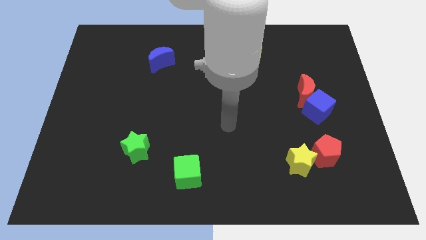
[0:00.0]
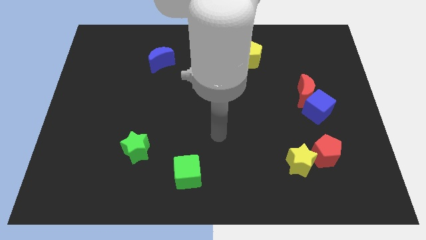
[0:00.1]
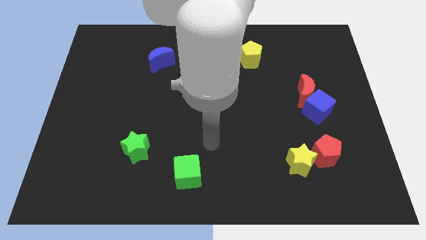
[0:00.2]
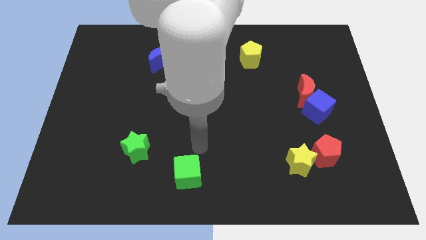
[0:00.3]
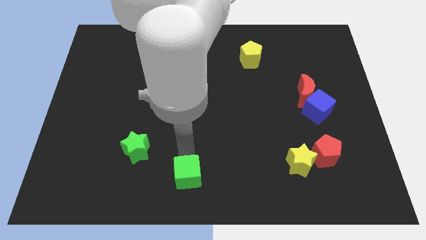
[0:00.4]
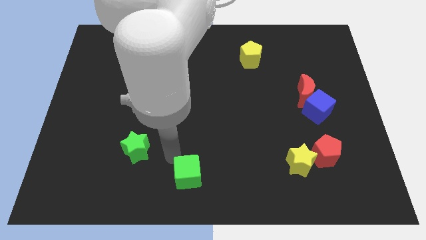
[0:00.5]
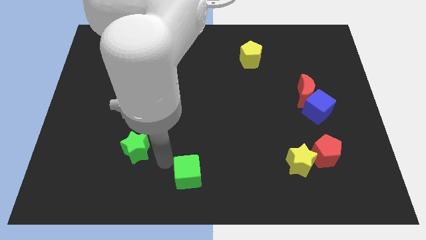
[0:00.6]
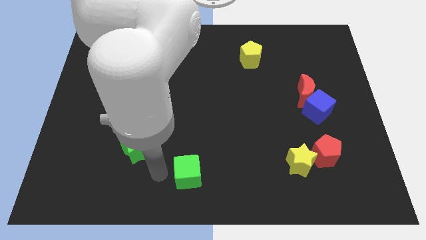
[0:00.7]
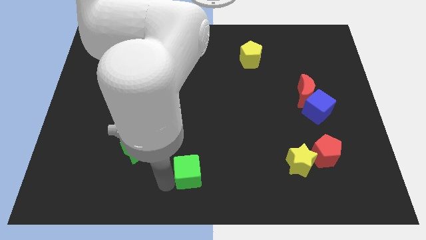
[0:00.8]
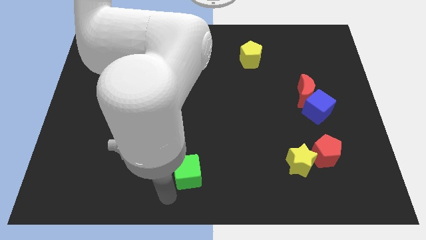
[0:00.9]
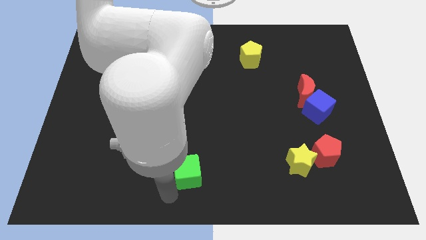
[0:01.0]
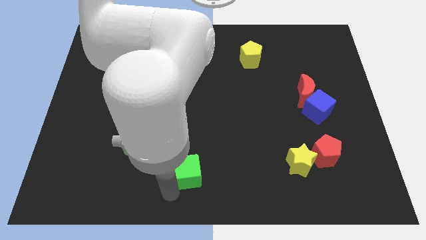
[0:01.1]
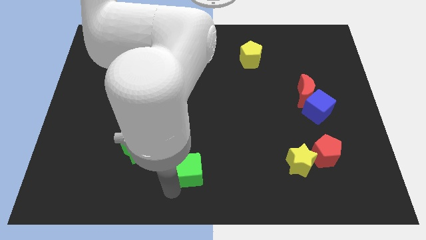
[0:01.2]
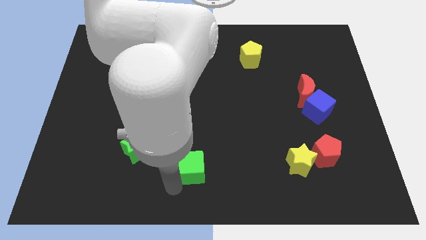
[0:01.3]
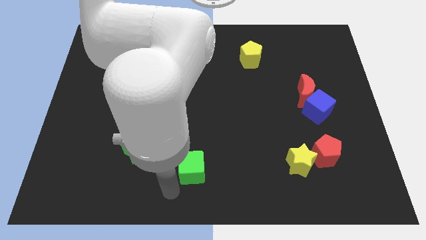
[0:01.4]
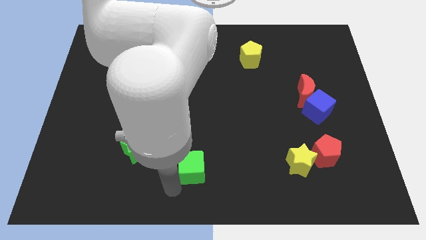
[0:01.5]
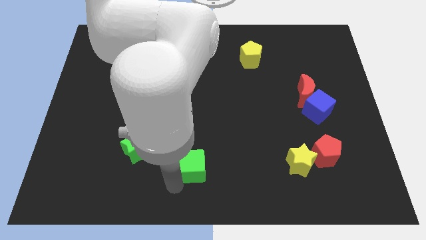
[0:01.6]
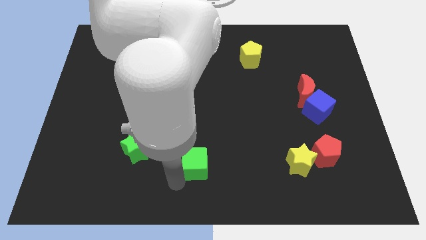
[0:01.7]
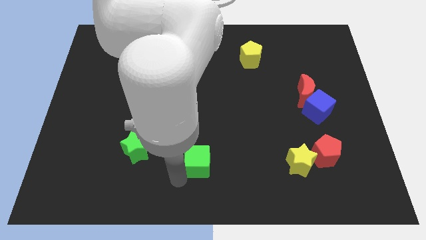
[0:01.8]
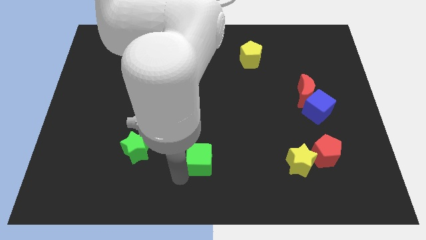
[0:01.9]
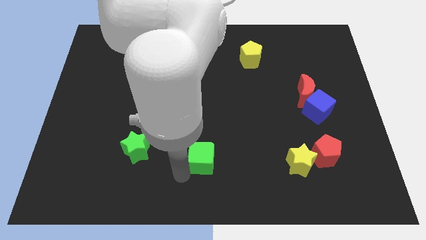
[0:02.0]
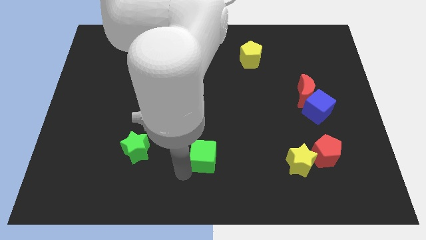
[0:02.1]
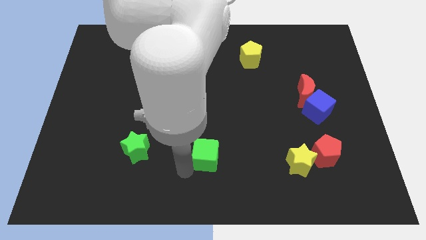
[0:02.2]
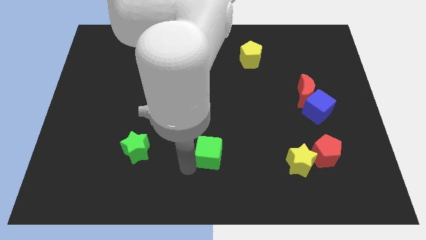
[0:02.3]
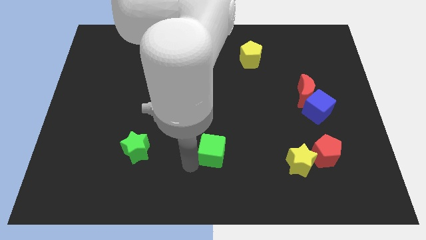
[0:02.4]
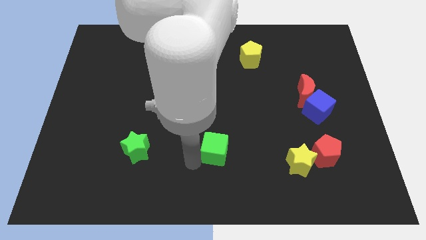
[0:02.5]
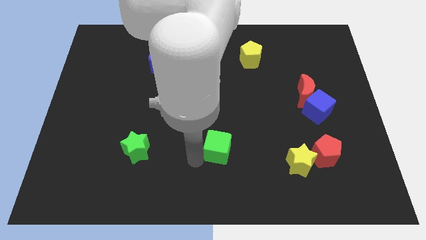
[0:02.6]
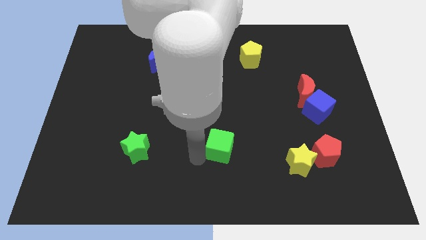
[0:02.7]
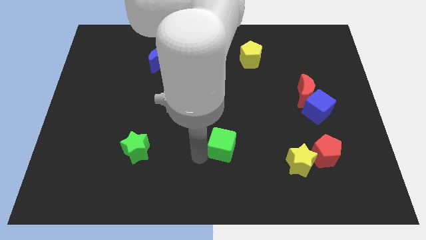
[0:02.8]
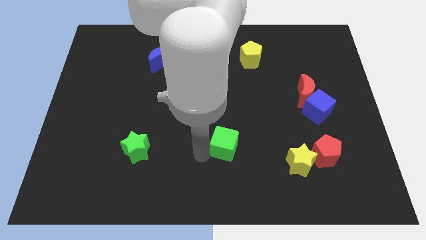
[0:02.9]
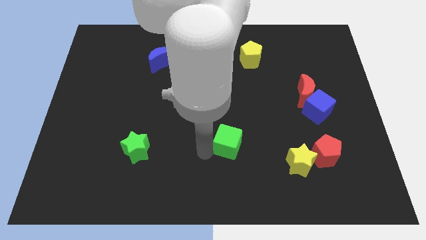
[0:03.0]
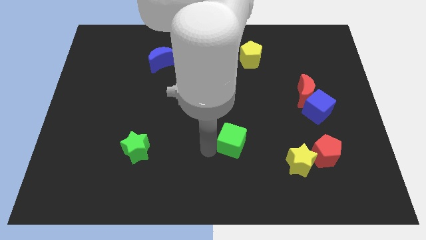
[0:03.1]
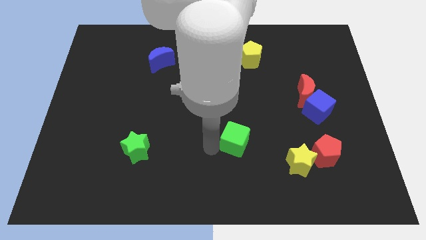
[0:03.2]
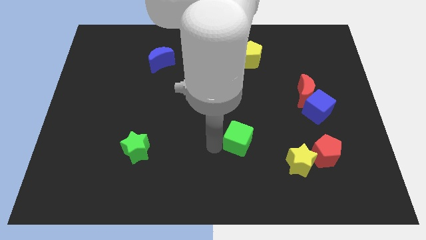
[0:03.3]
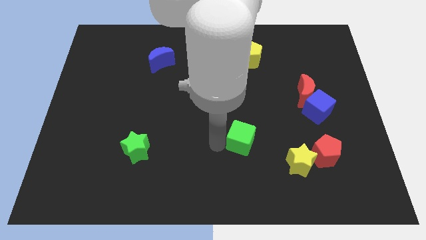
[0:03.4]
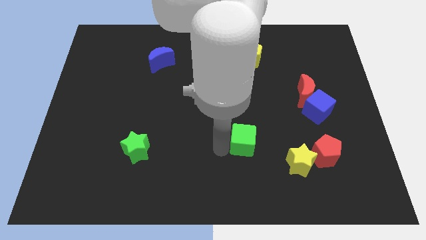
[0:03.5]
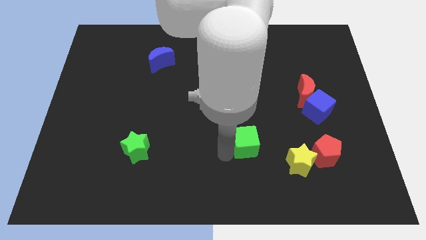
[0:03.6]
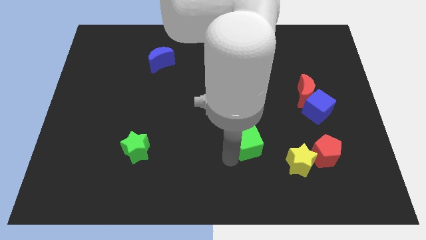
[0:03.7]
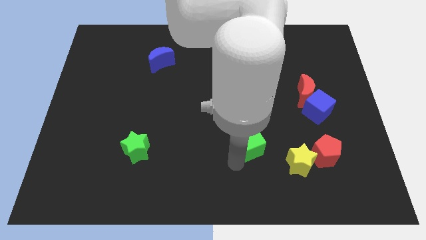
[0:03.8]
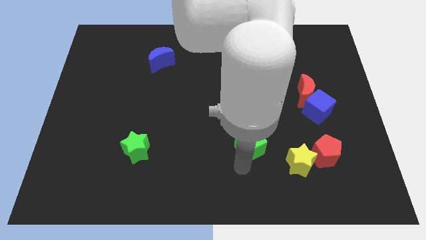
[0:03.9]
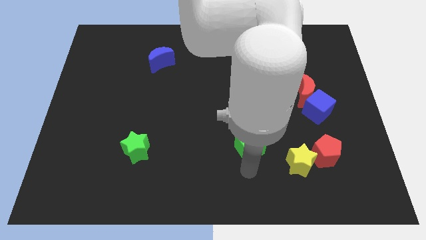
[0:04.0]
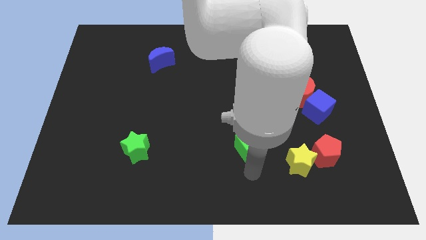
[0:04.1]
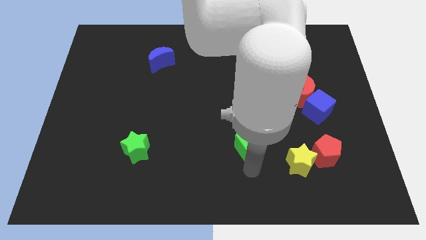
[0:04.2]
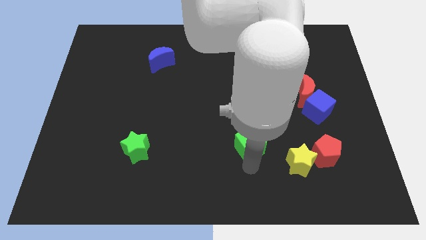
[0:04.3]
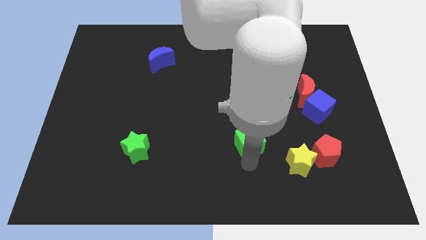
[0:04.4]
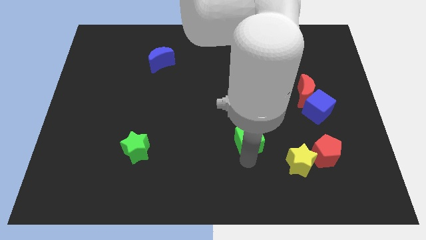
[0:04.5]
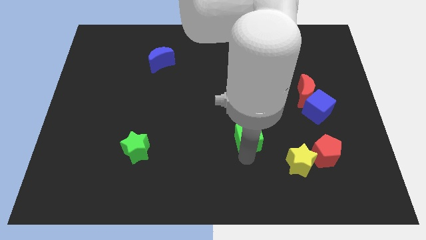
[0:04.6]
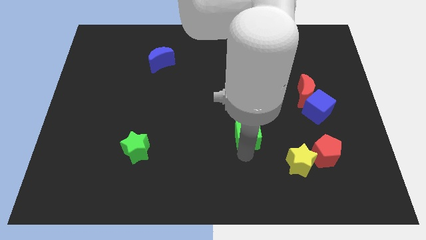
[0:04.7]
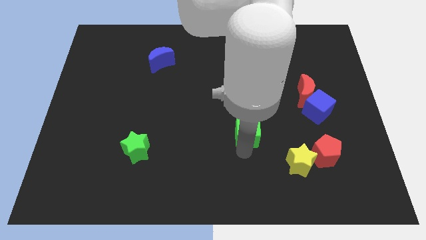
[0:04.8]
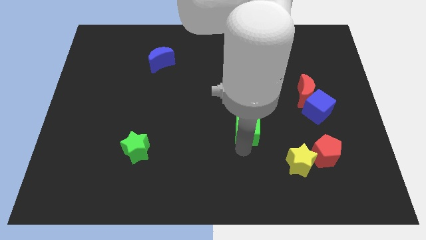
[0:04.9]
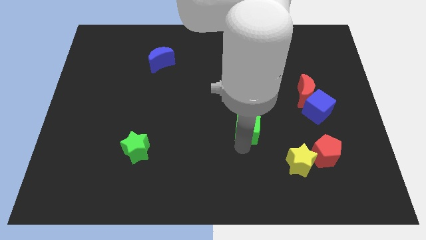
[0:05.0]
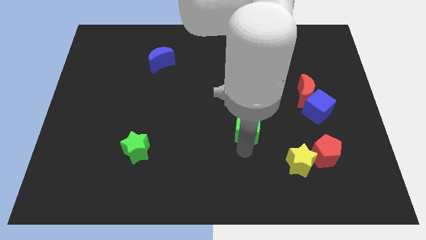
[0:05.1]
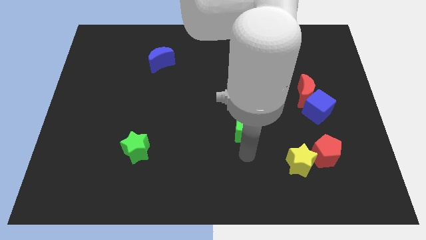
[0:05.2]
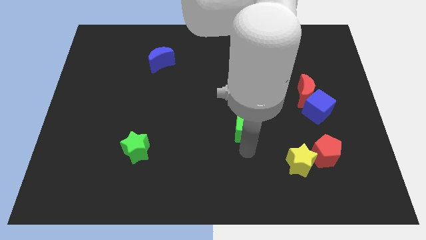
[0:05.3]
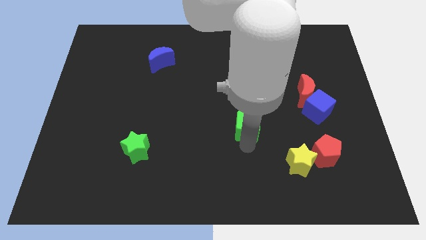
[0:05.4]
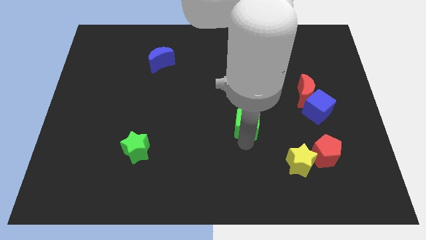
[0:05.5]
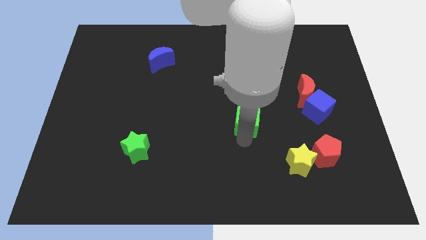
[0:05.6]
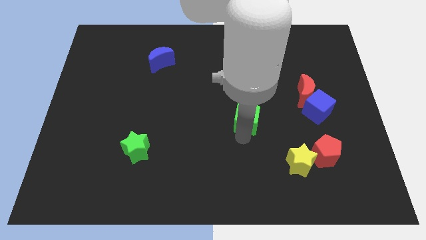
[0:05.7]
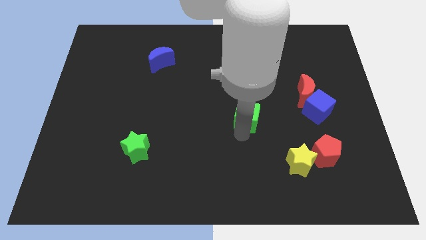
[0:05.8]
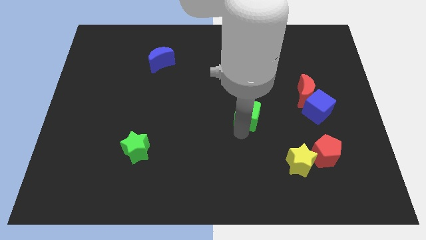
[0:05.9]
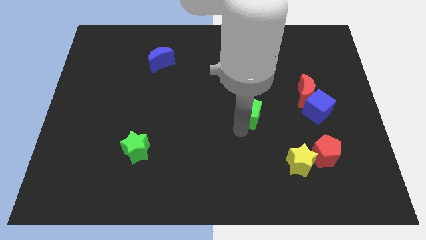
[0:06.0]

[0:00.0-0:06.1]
push the green cube up and right diagonally

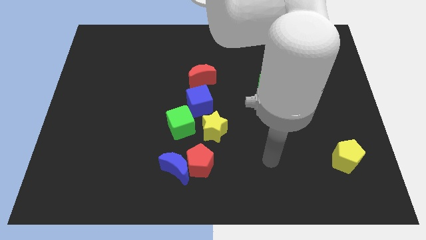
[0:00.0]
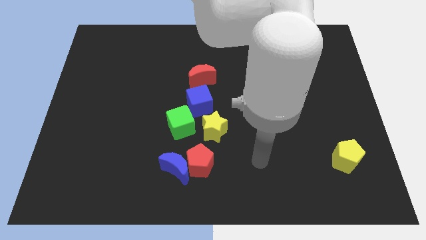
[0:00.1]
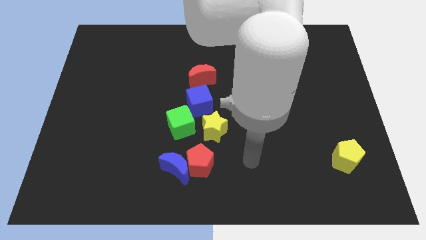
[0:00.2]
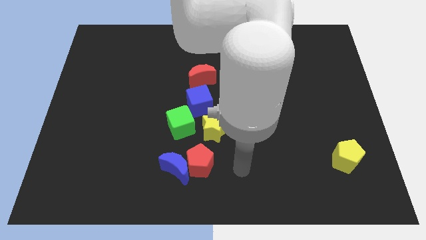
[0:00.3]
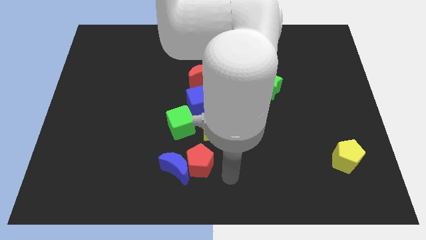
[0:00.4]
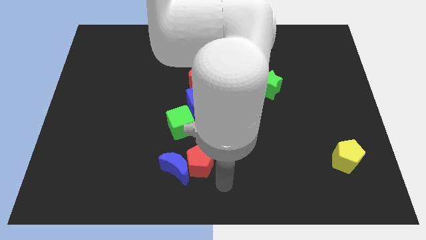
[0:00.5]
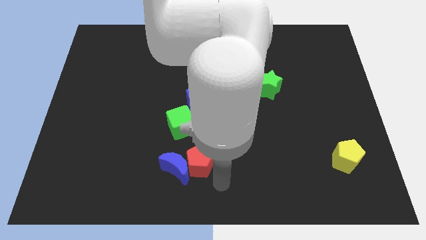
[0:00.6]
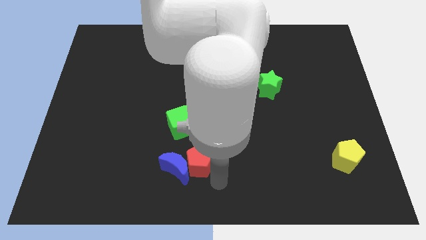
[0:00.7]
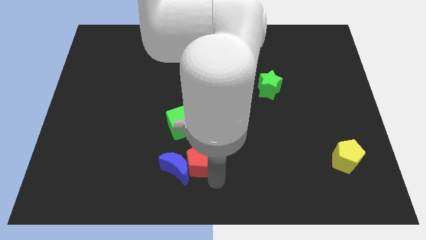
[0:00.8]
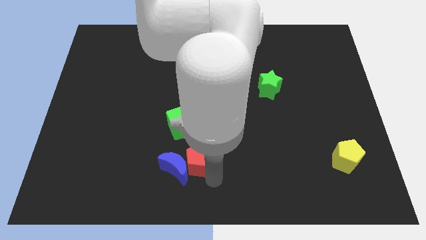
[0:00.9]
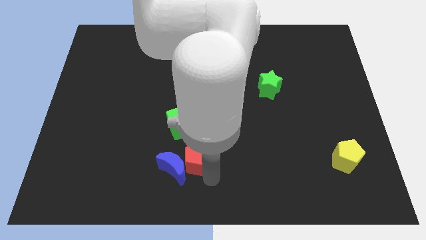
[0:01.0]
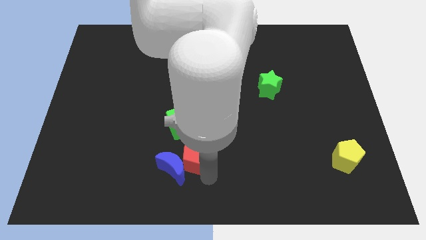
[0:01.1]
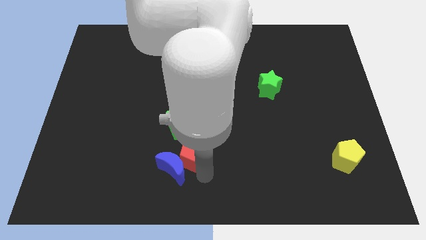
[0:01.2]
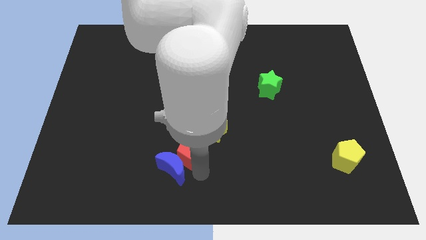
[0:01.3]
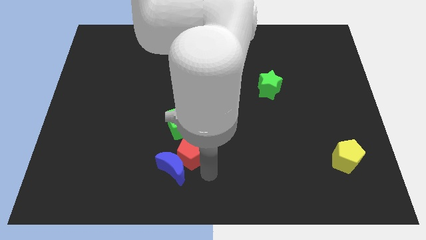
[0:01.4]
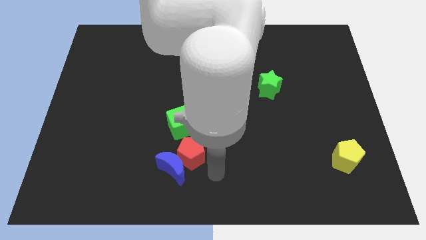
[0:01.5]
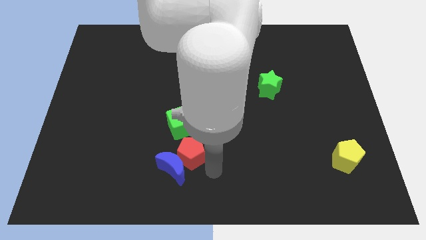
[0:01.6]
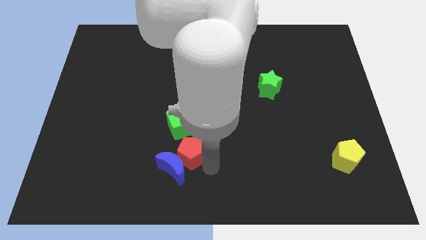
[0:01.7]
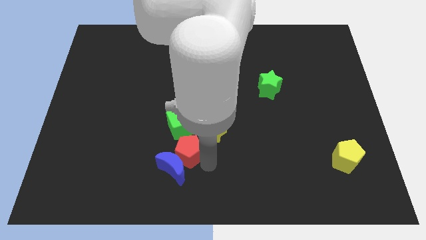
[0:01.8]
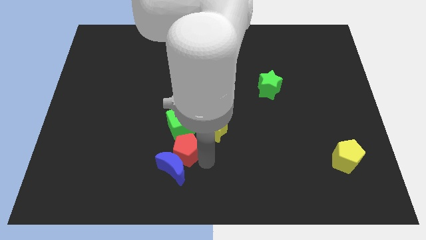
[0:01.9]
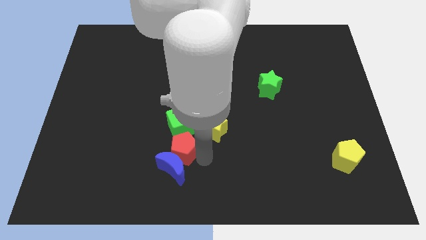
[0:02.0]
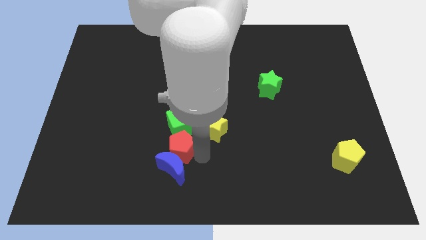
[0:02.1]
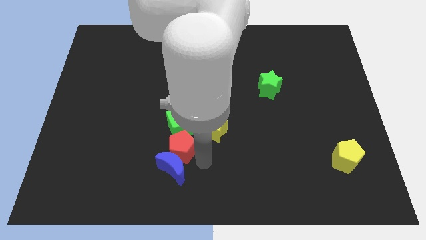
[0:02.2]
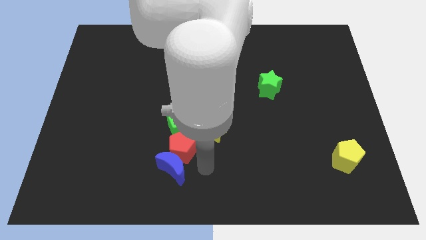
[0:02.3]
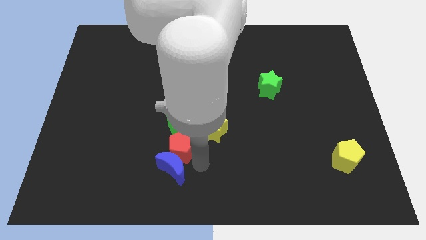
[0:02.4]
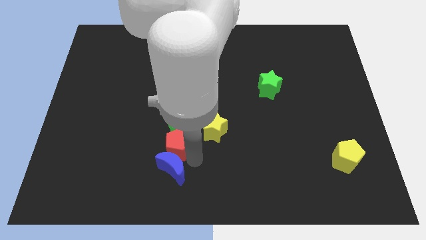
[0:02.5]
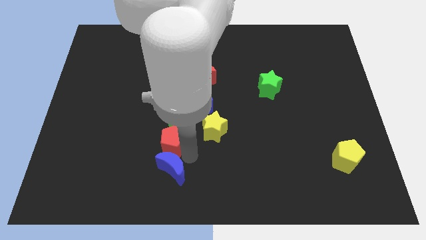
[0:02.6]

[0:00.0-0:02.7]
push the red pentagon upwards and to the left diagonally a little bit
